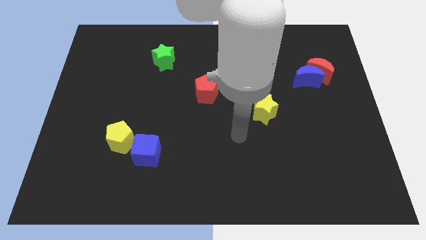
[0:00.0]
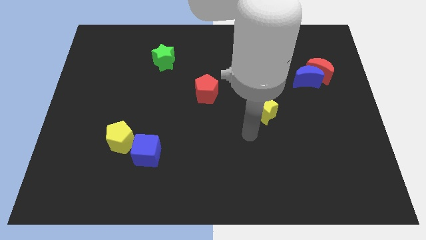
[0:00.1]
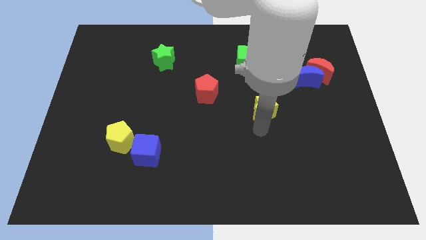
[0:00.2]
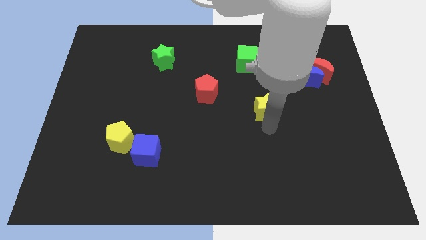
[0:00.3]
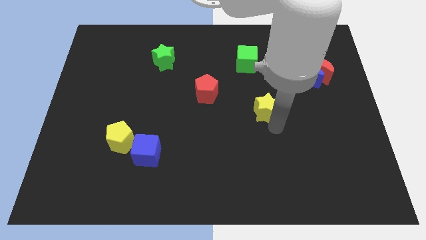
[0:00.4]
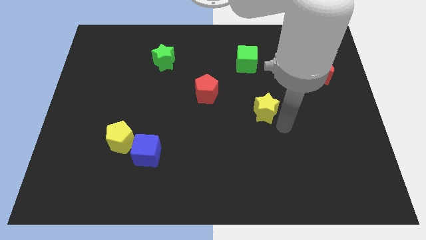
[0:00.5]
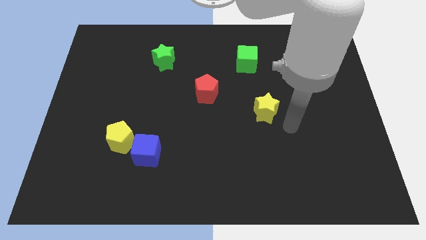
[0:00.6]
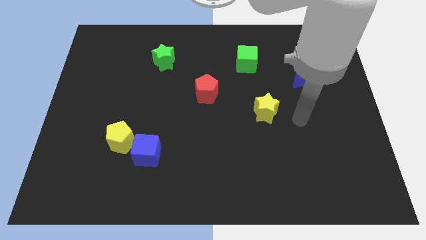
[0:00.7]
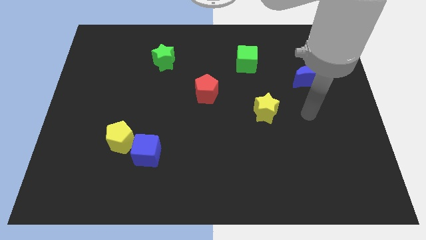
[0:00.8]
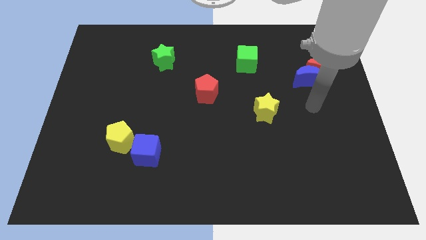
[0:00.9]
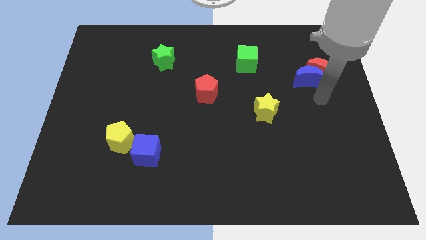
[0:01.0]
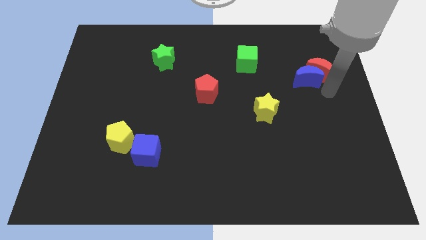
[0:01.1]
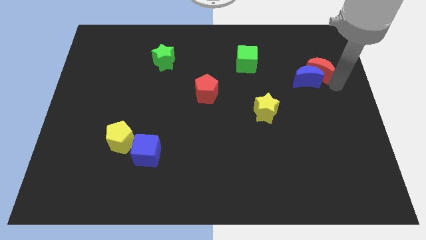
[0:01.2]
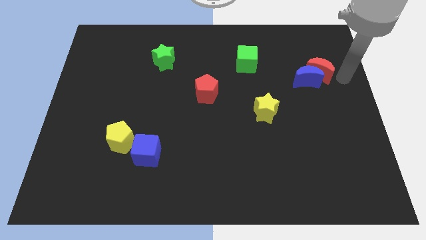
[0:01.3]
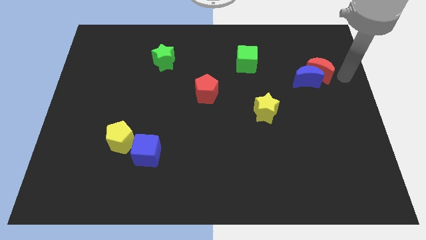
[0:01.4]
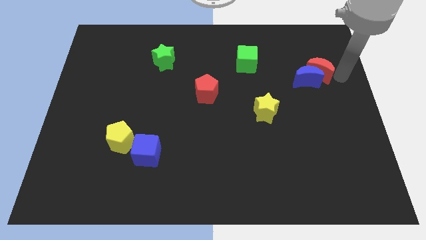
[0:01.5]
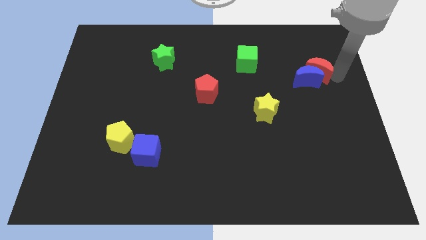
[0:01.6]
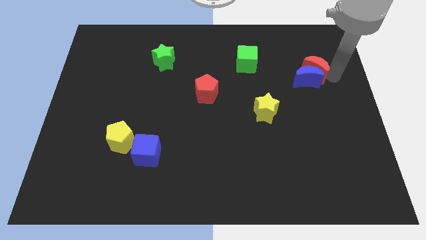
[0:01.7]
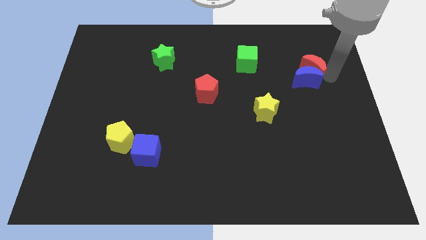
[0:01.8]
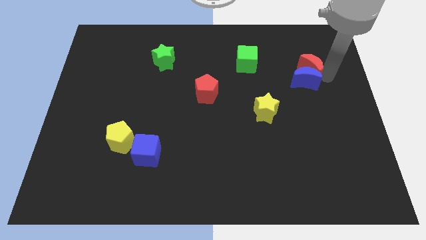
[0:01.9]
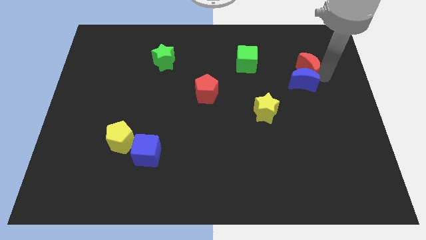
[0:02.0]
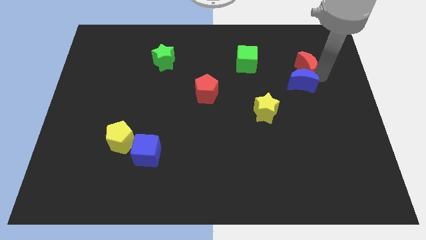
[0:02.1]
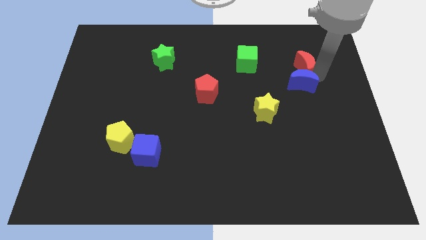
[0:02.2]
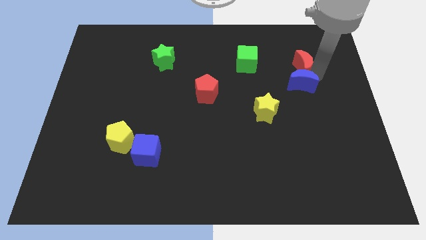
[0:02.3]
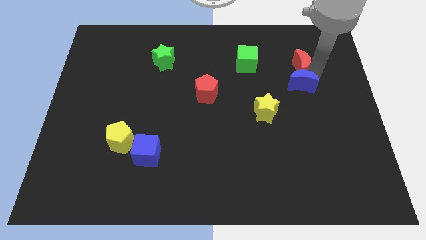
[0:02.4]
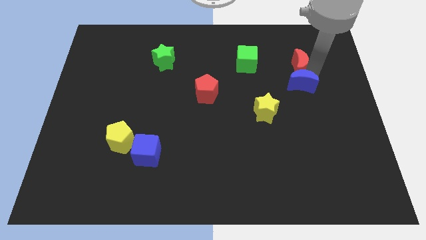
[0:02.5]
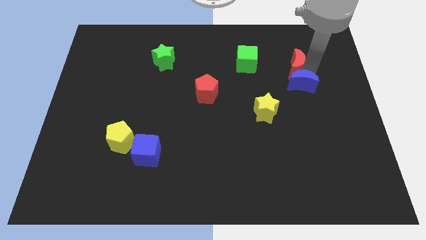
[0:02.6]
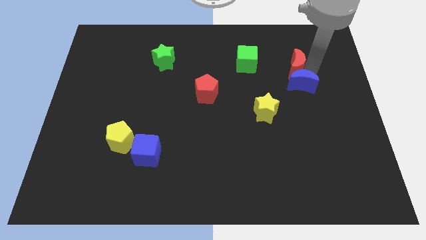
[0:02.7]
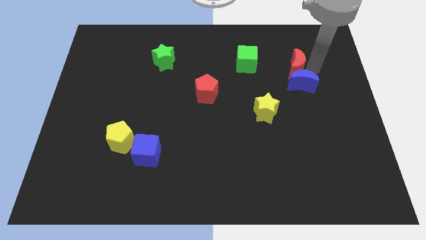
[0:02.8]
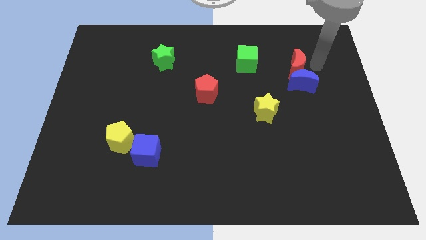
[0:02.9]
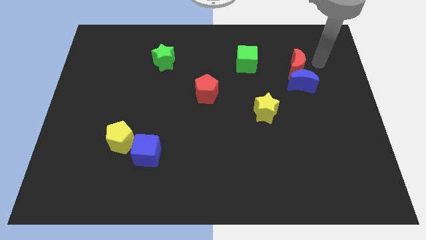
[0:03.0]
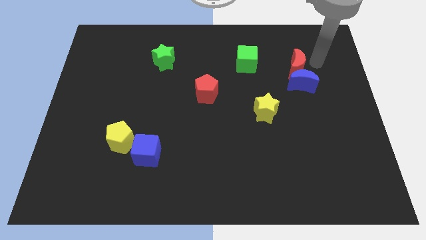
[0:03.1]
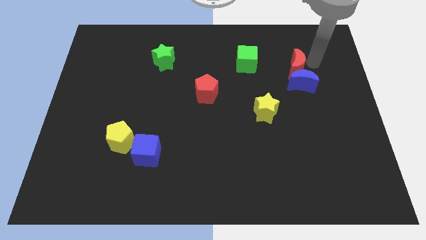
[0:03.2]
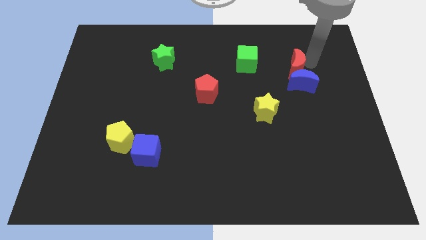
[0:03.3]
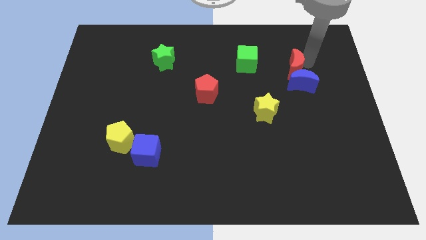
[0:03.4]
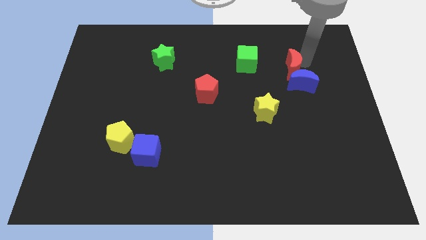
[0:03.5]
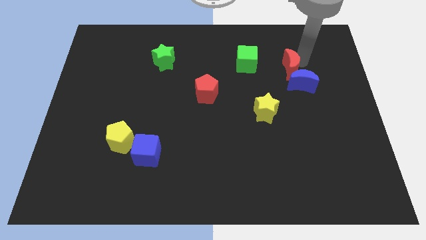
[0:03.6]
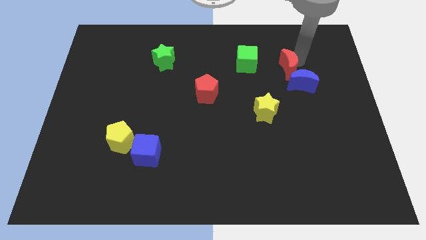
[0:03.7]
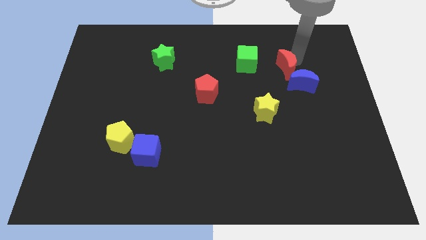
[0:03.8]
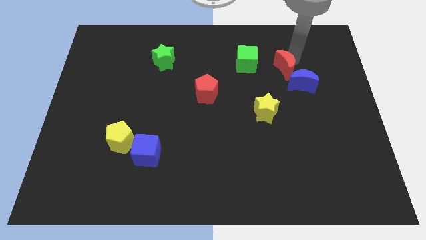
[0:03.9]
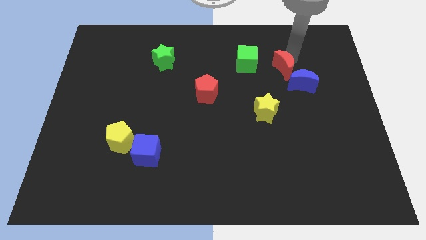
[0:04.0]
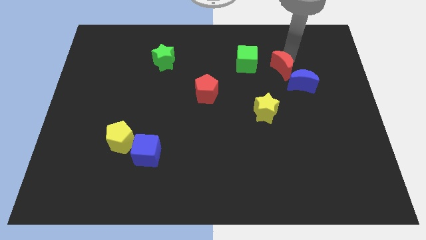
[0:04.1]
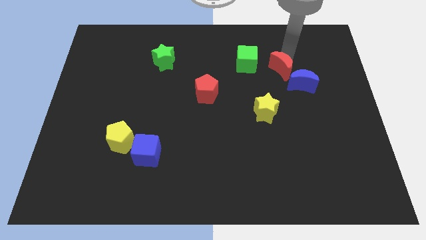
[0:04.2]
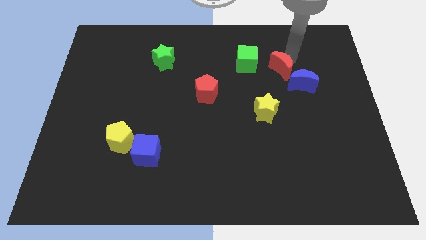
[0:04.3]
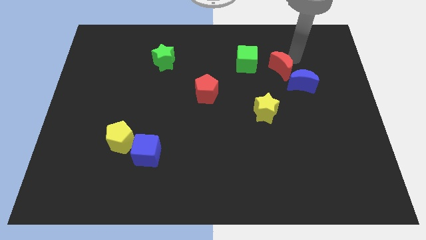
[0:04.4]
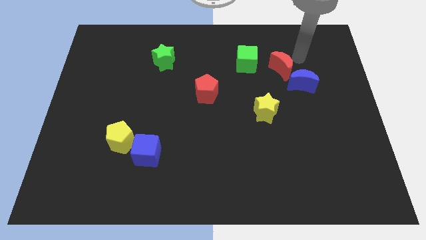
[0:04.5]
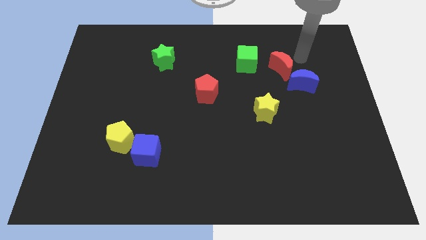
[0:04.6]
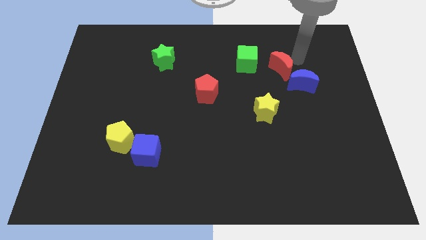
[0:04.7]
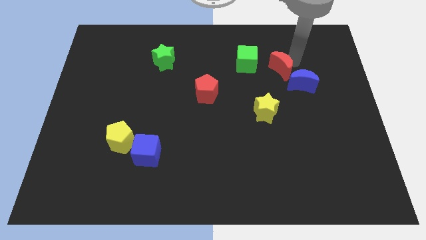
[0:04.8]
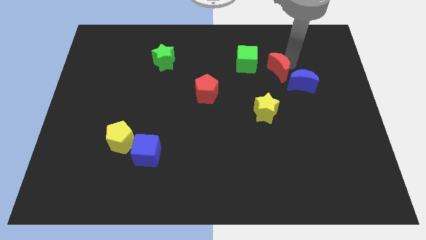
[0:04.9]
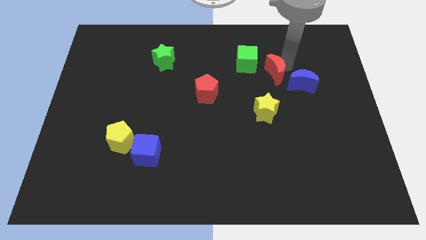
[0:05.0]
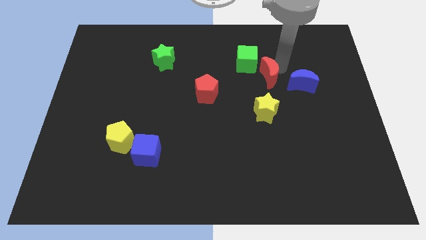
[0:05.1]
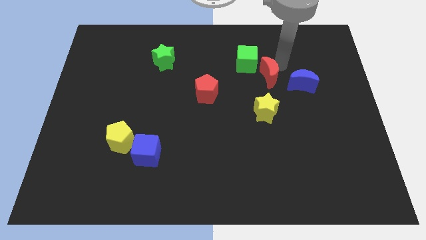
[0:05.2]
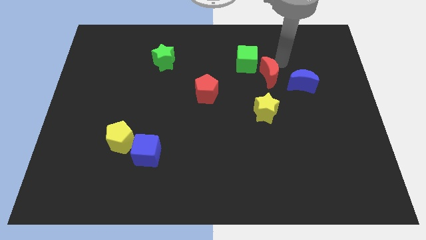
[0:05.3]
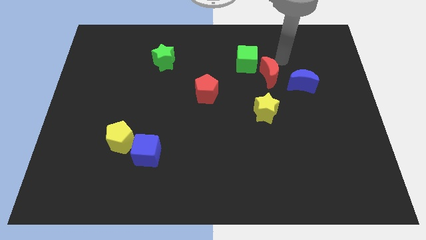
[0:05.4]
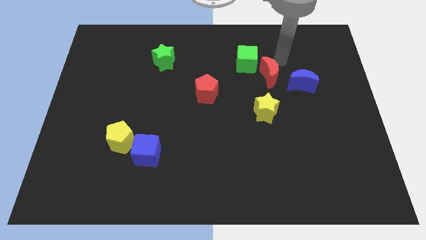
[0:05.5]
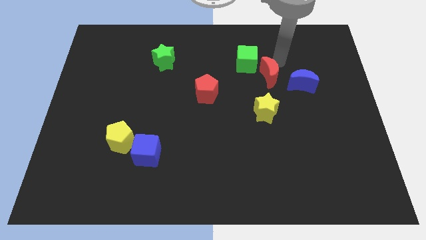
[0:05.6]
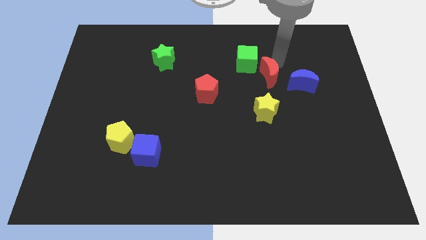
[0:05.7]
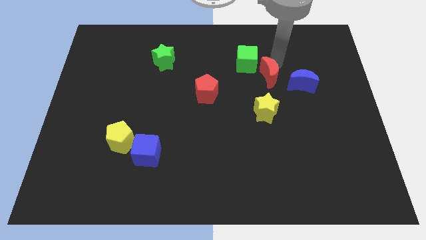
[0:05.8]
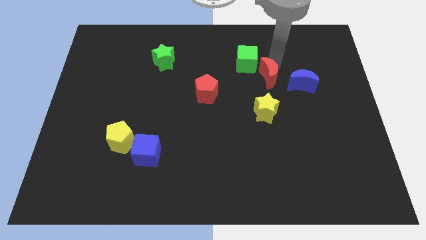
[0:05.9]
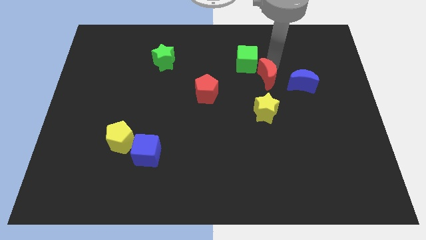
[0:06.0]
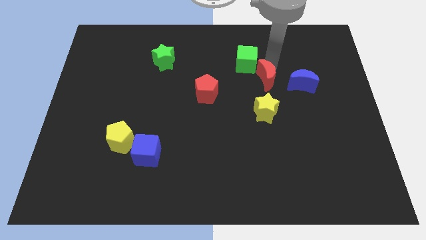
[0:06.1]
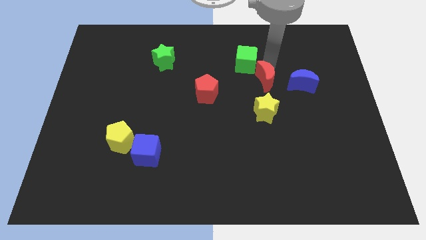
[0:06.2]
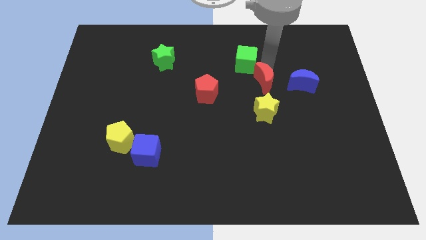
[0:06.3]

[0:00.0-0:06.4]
put the red moon to the right side of the red pentagon
